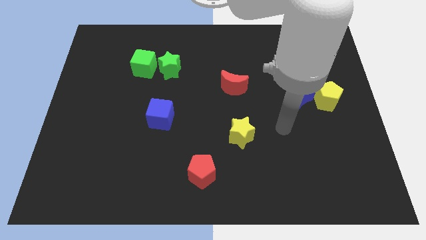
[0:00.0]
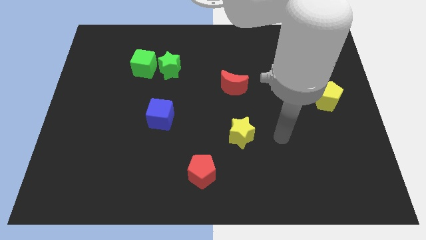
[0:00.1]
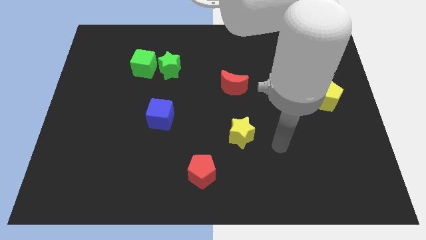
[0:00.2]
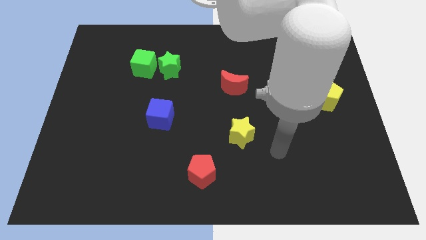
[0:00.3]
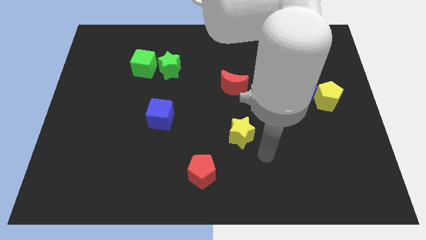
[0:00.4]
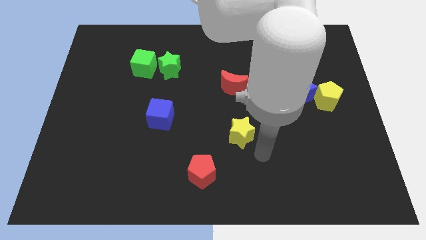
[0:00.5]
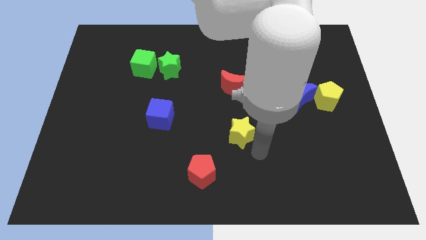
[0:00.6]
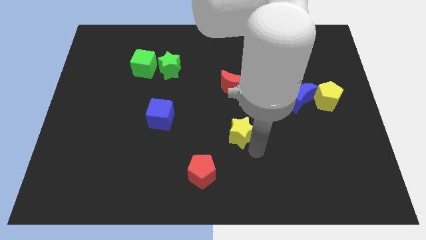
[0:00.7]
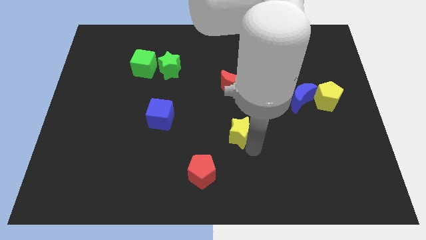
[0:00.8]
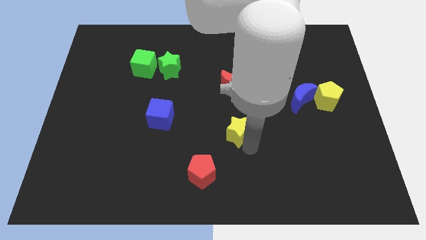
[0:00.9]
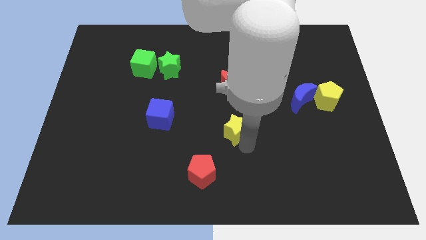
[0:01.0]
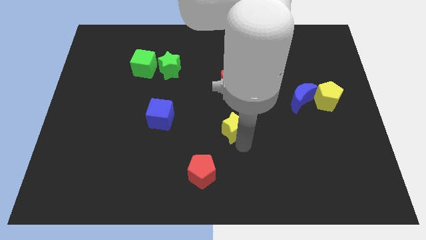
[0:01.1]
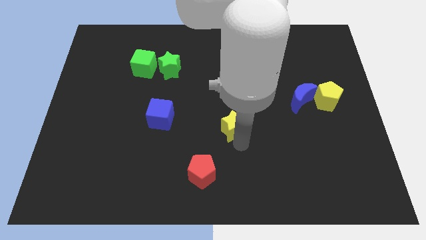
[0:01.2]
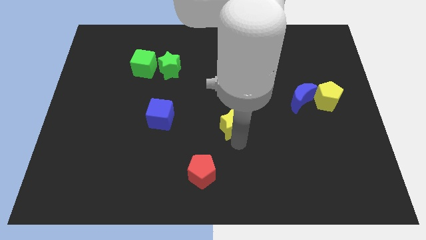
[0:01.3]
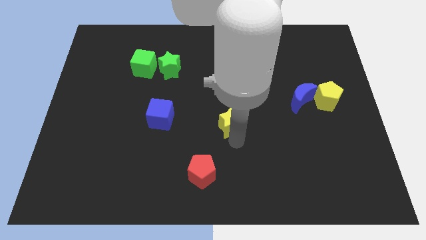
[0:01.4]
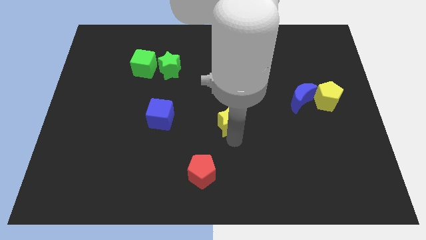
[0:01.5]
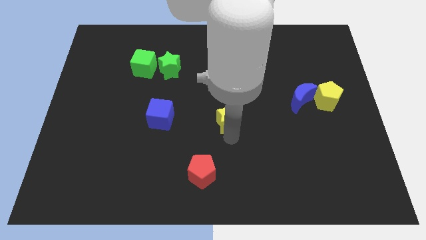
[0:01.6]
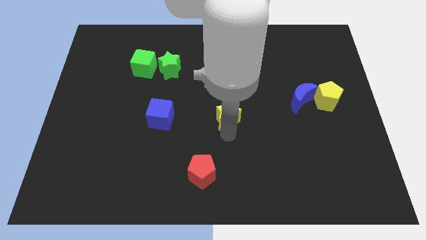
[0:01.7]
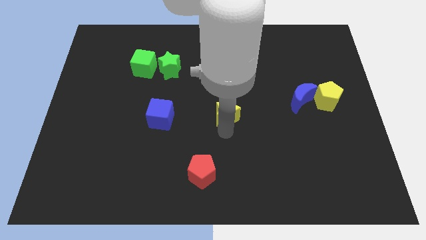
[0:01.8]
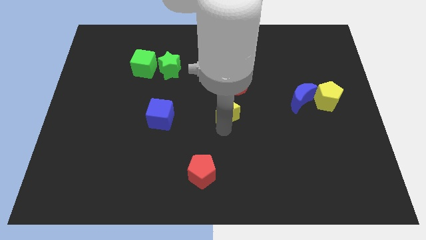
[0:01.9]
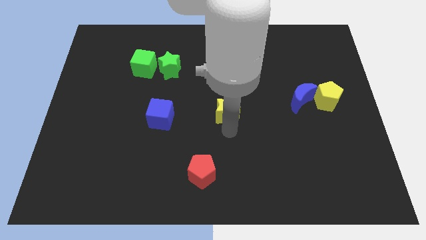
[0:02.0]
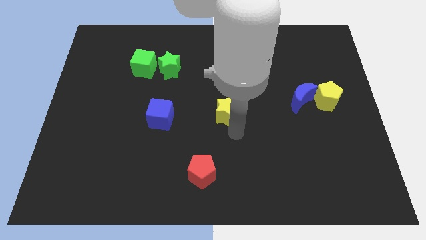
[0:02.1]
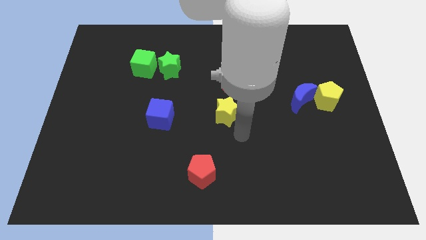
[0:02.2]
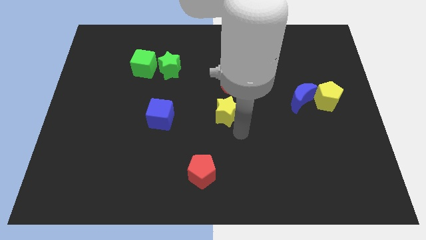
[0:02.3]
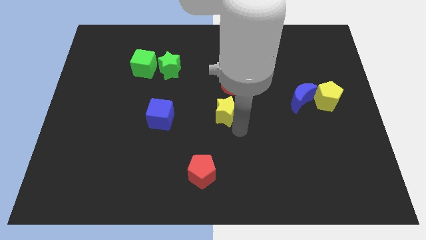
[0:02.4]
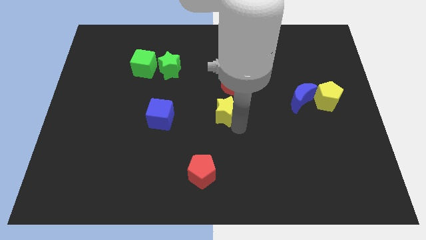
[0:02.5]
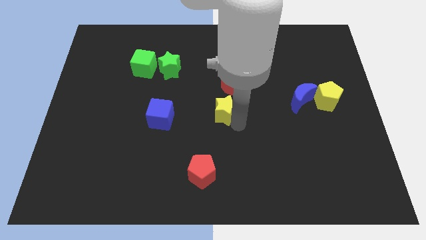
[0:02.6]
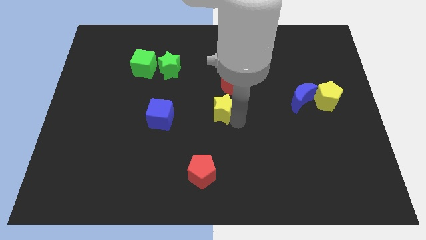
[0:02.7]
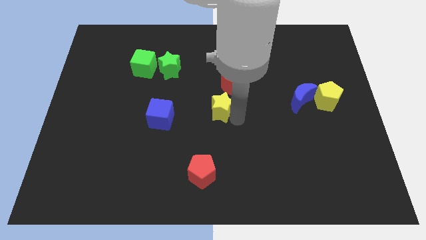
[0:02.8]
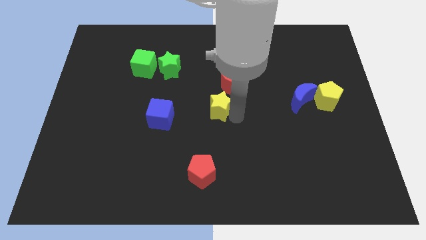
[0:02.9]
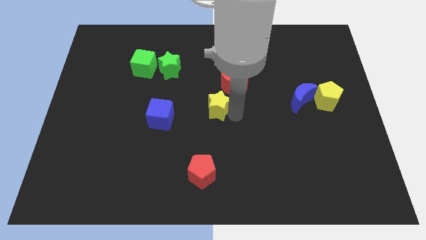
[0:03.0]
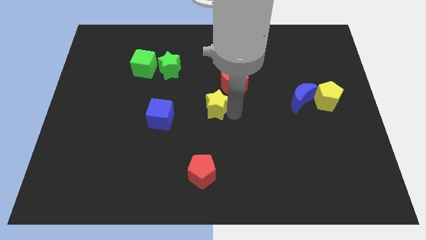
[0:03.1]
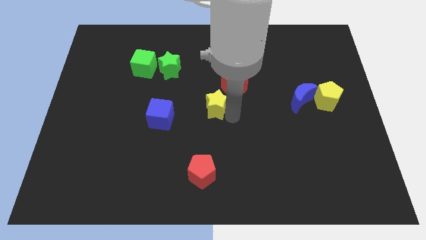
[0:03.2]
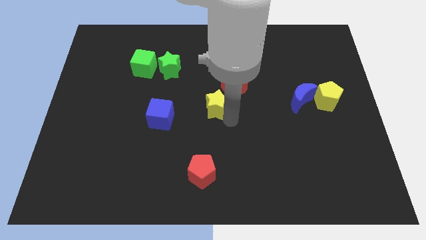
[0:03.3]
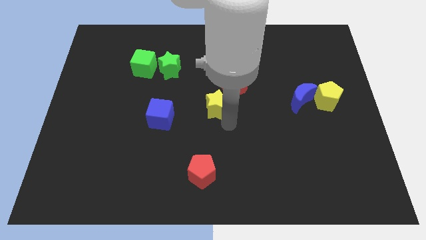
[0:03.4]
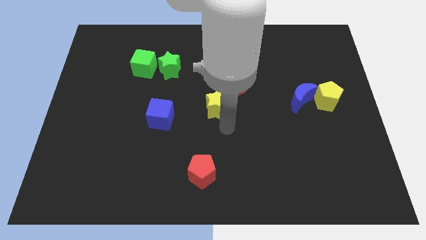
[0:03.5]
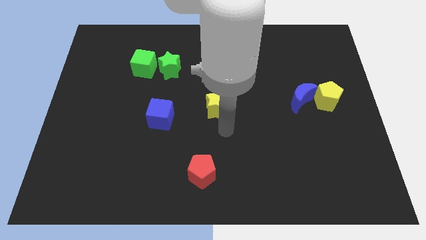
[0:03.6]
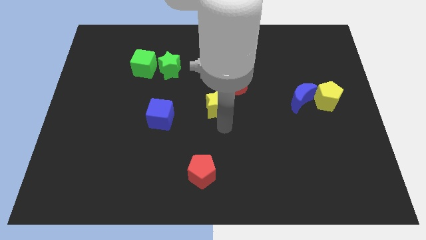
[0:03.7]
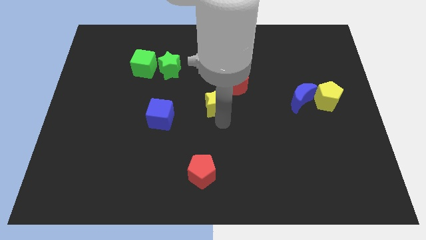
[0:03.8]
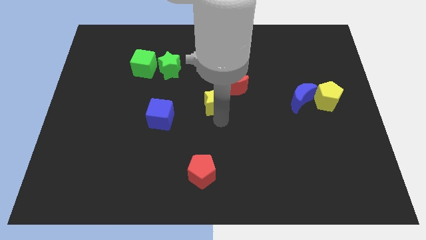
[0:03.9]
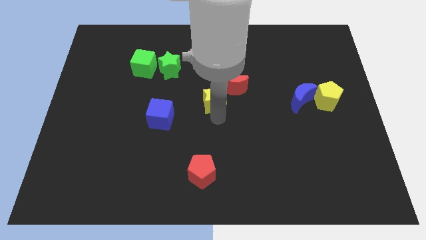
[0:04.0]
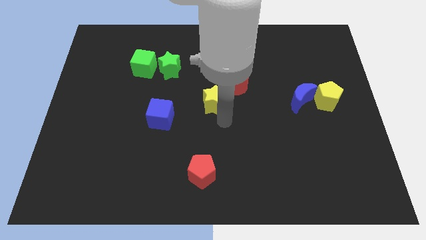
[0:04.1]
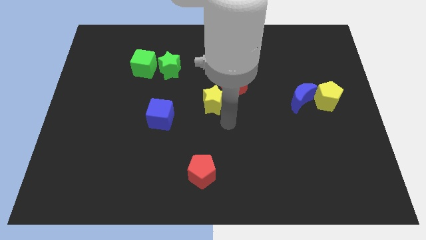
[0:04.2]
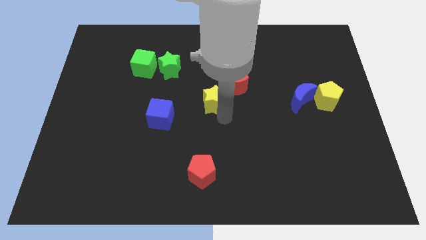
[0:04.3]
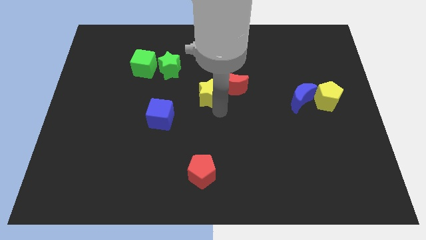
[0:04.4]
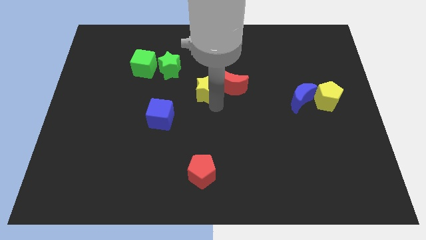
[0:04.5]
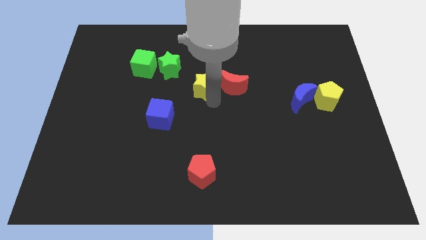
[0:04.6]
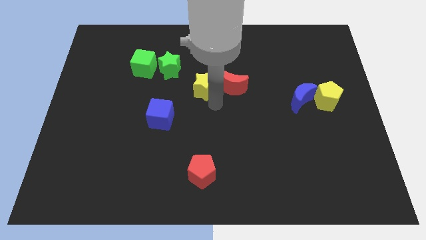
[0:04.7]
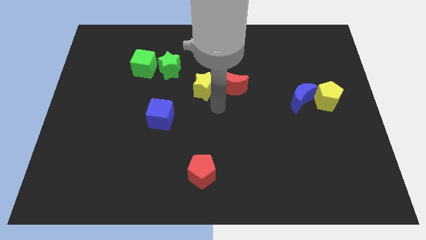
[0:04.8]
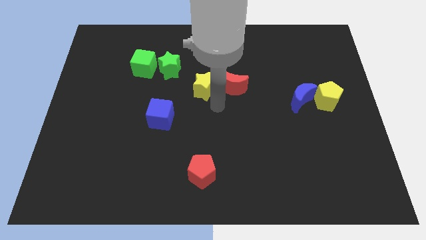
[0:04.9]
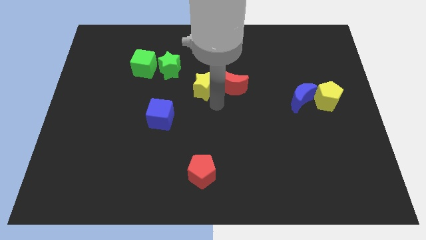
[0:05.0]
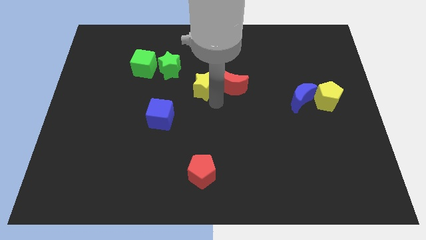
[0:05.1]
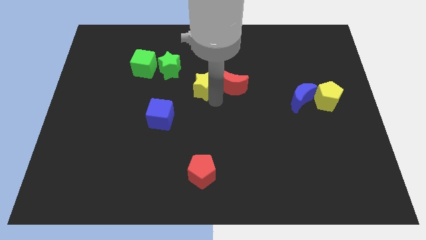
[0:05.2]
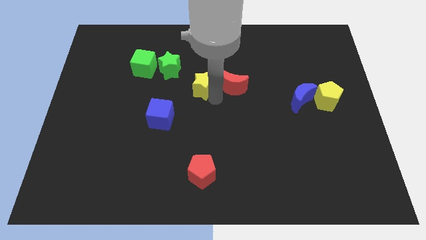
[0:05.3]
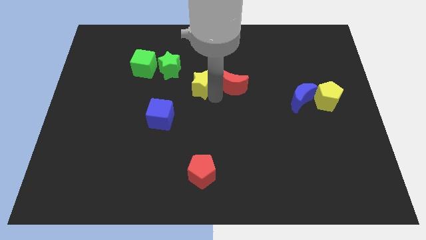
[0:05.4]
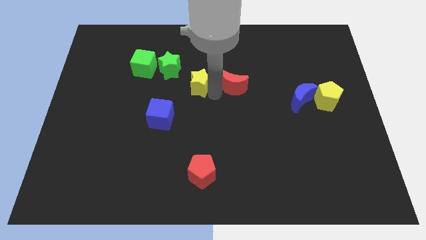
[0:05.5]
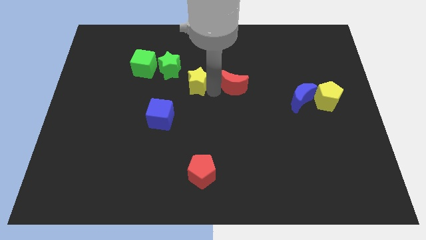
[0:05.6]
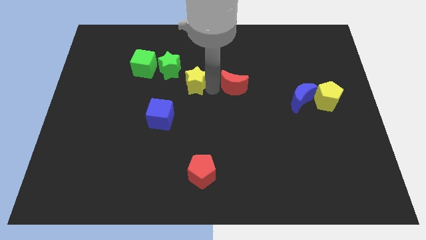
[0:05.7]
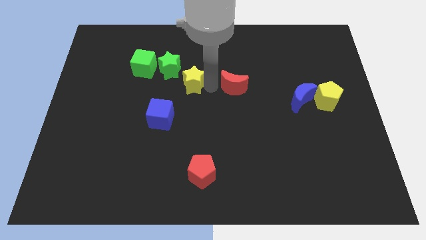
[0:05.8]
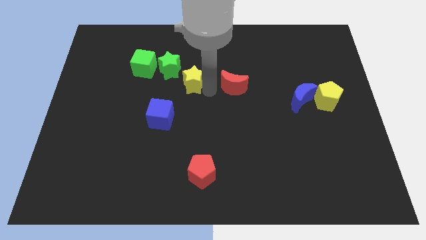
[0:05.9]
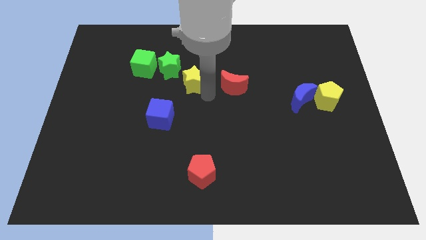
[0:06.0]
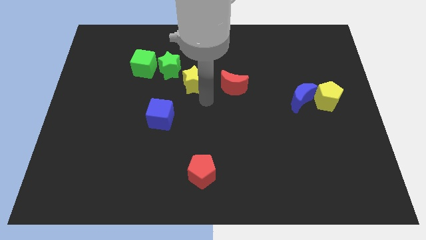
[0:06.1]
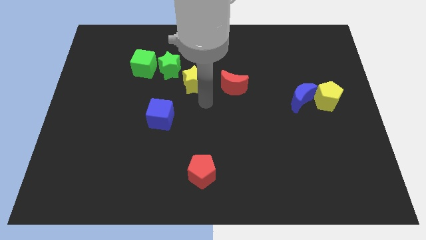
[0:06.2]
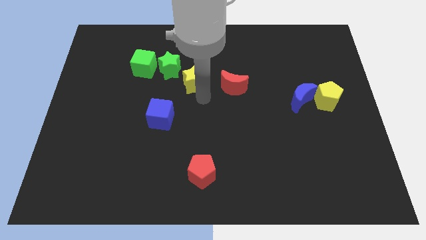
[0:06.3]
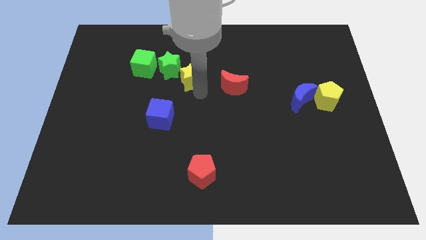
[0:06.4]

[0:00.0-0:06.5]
push the yellow star to the right side of the green cube
